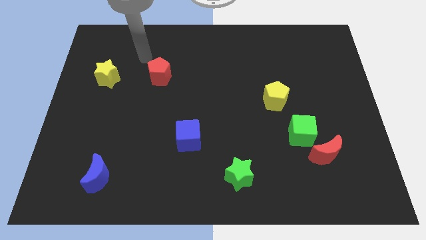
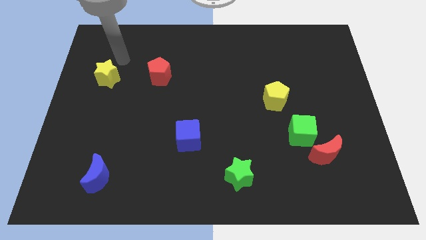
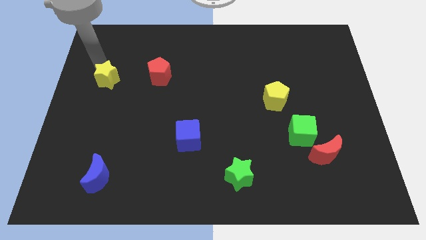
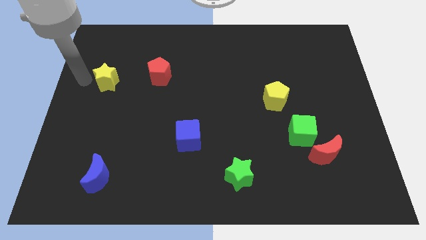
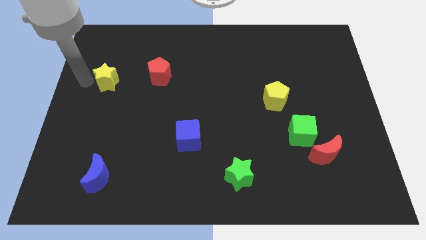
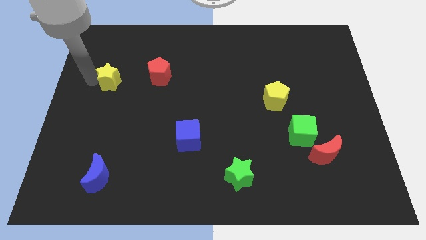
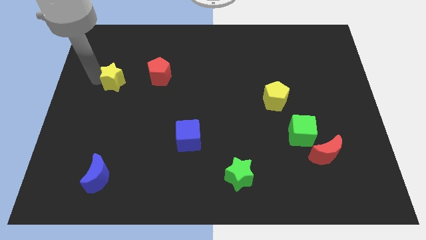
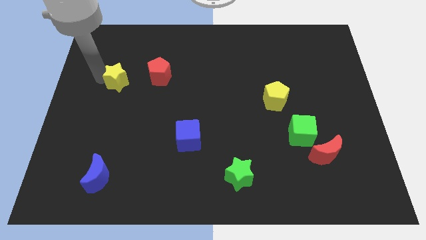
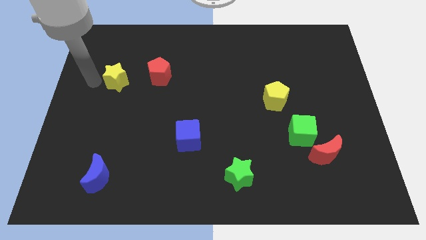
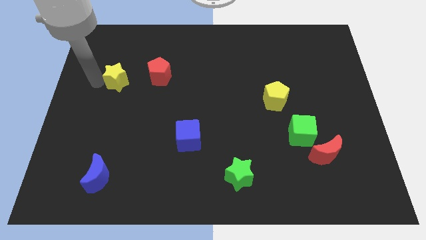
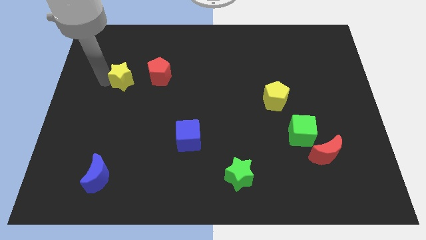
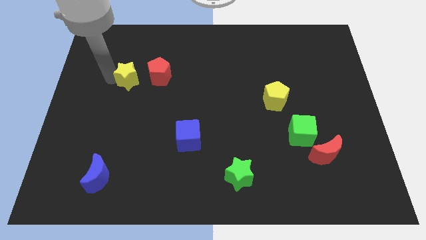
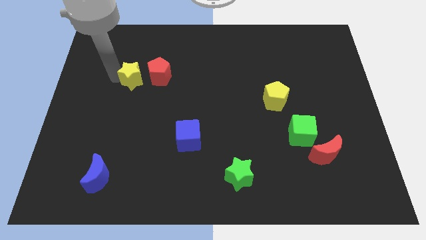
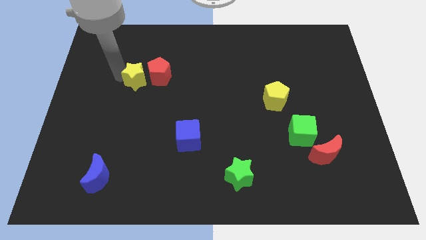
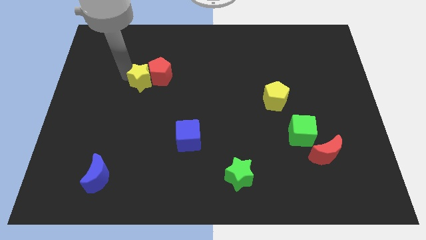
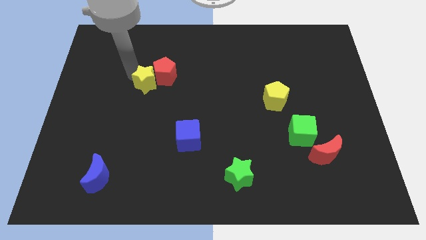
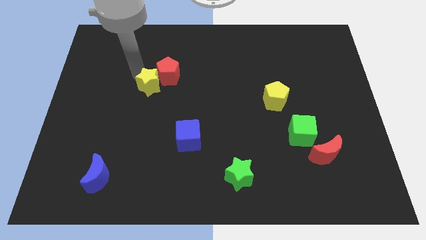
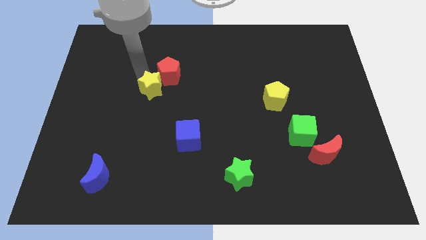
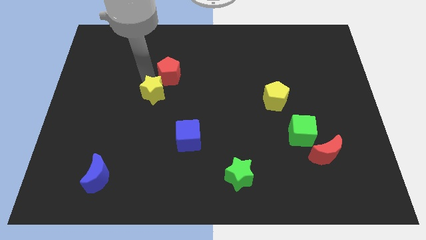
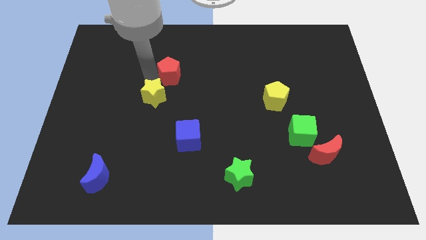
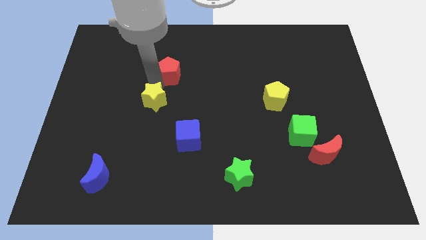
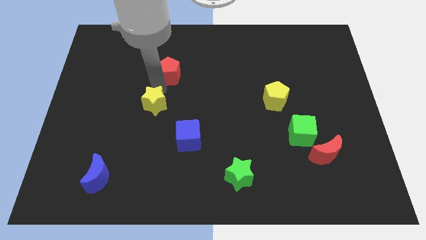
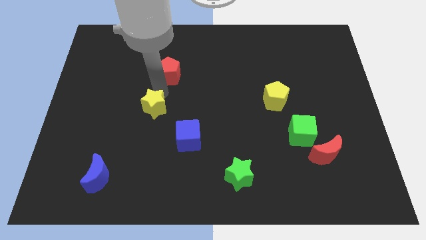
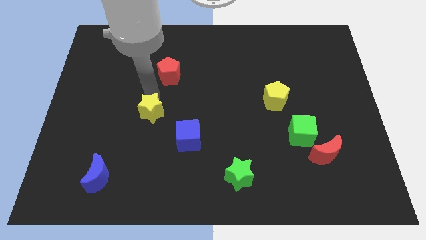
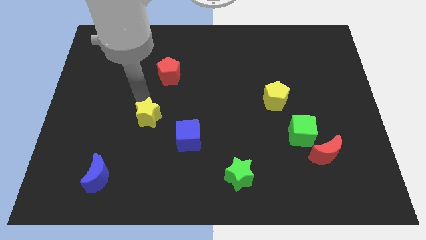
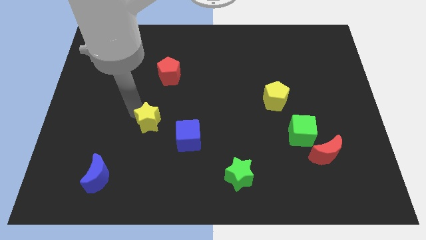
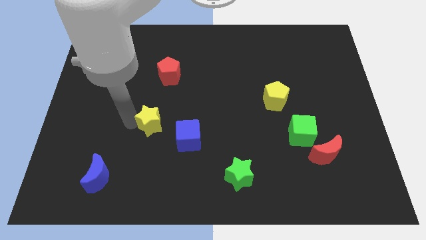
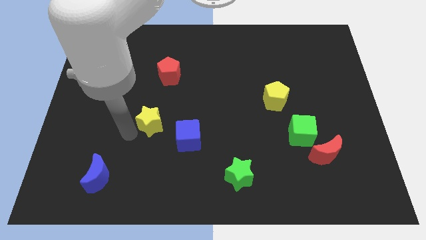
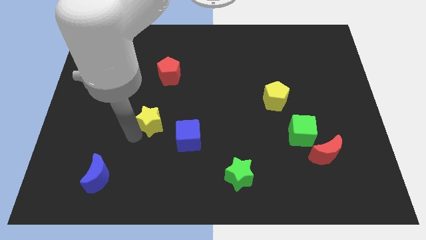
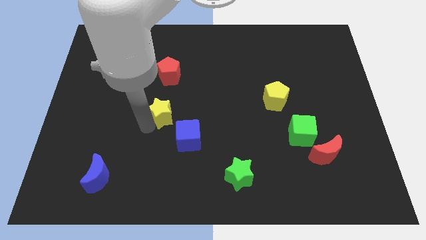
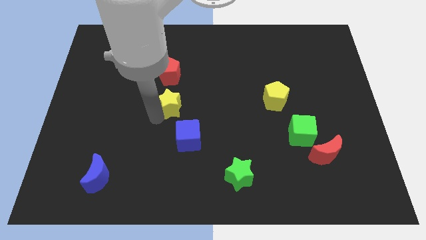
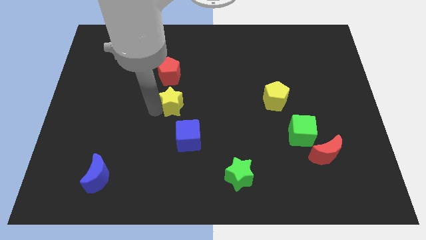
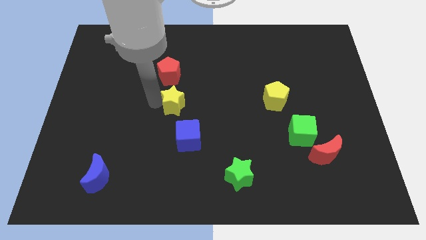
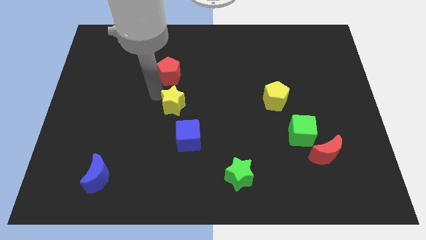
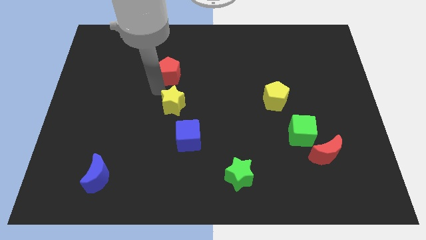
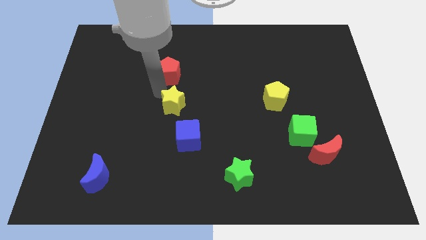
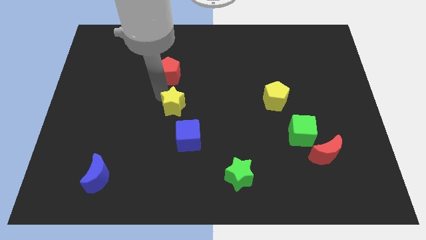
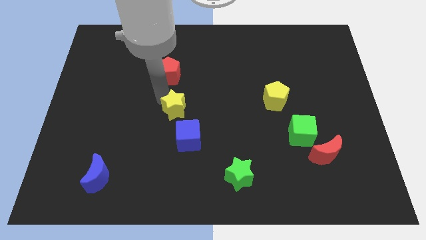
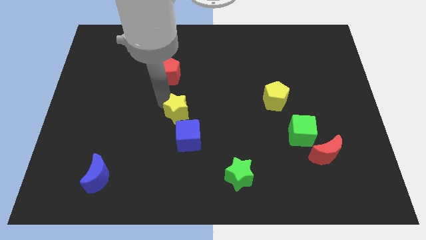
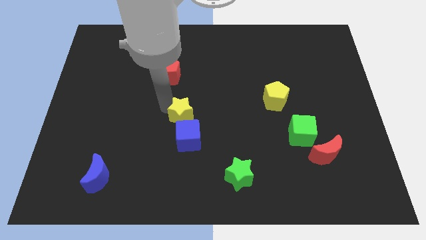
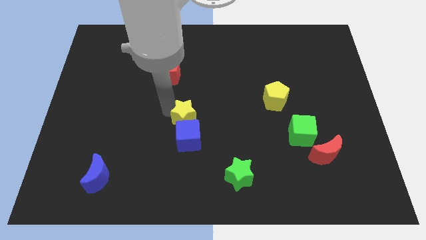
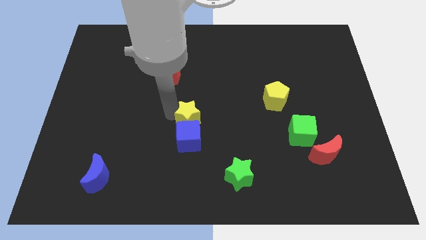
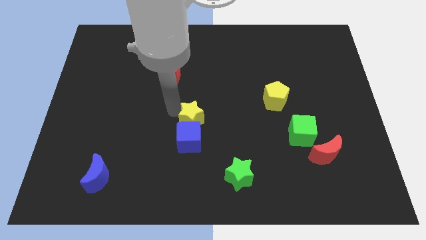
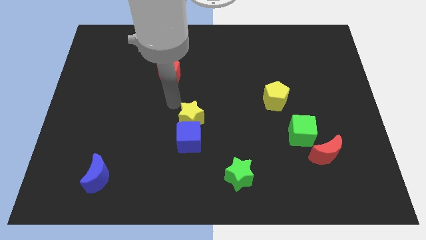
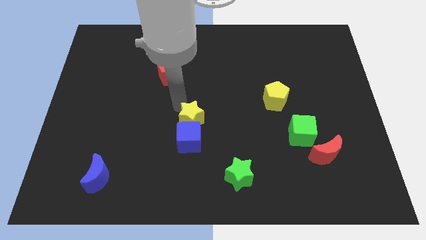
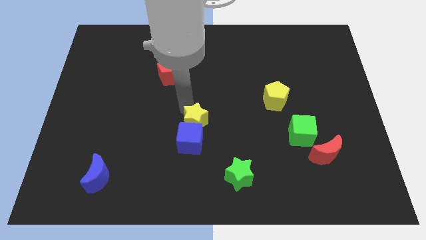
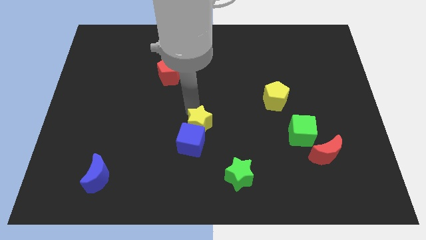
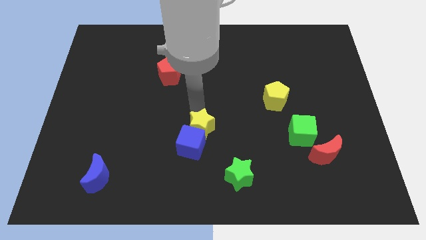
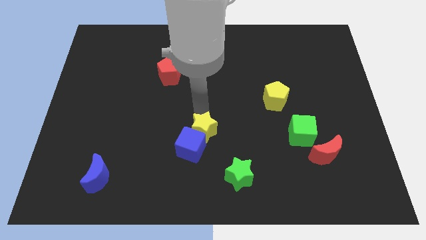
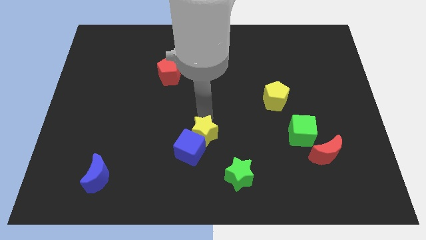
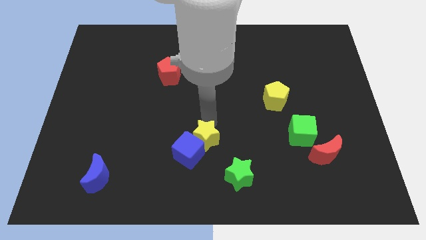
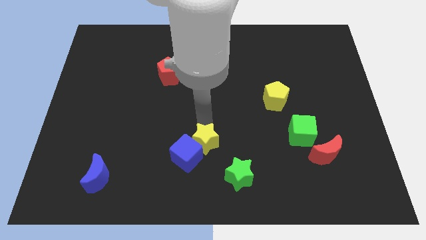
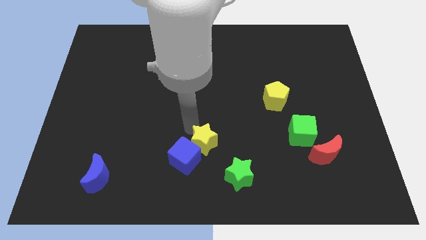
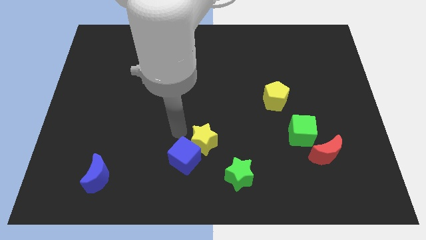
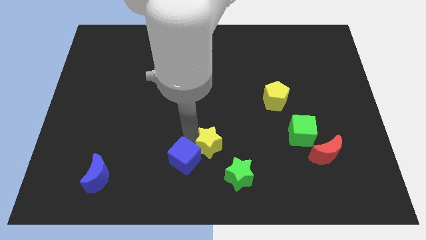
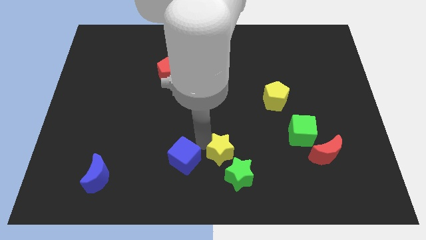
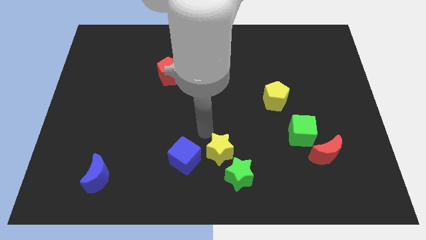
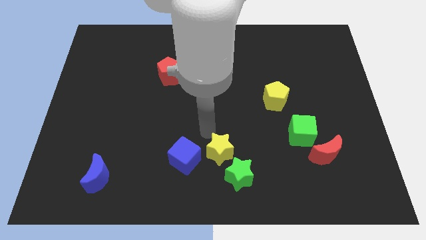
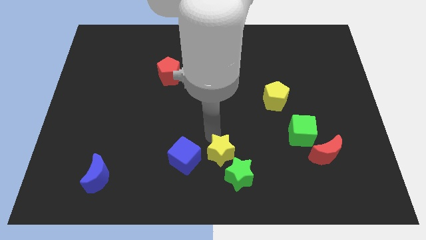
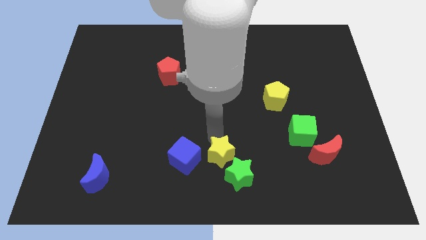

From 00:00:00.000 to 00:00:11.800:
push the yellow star to the green star

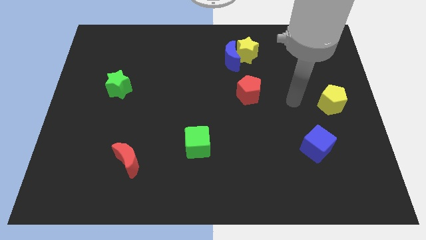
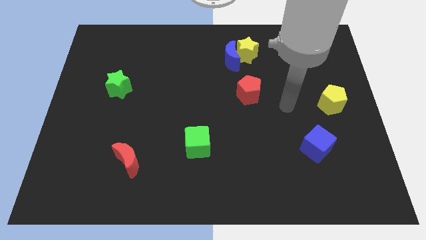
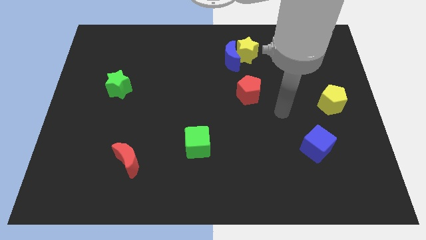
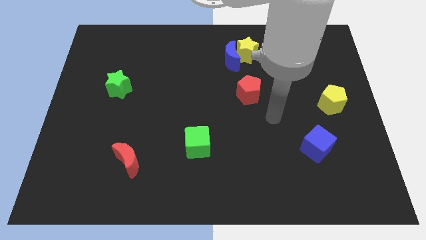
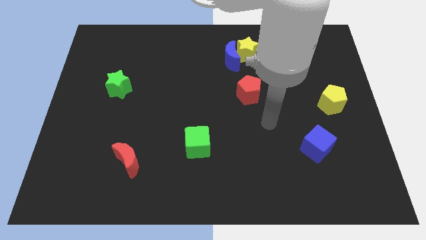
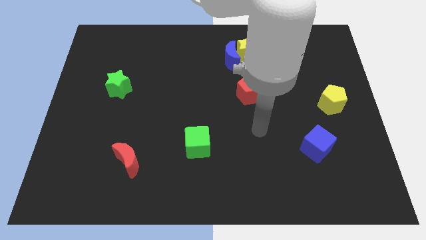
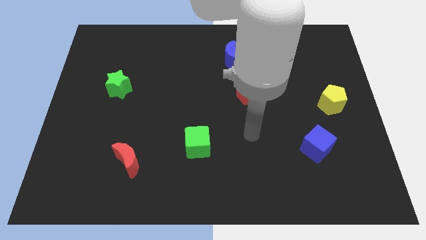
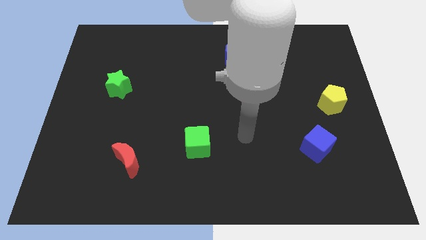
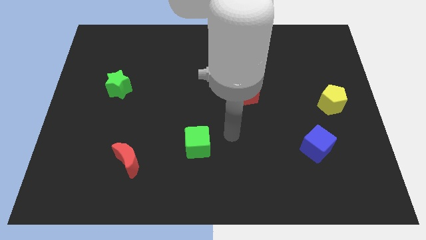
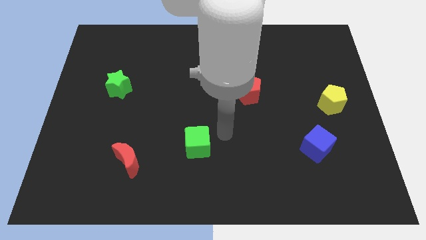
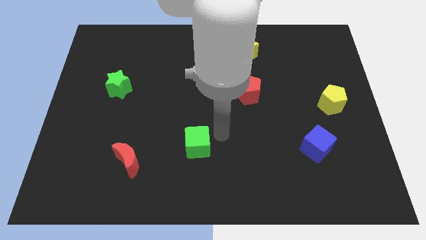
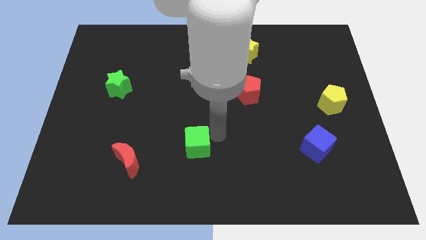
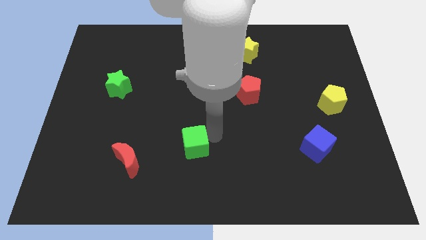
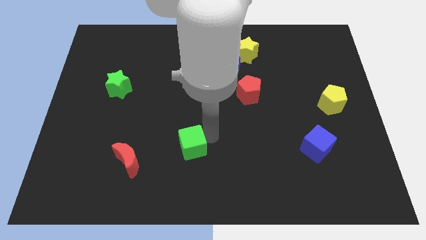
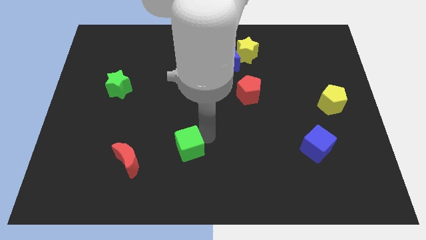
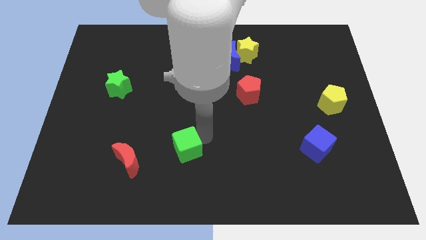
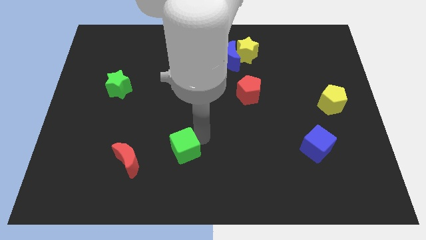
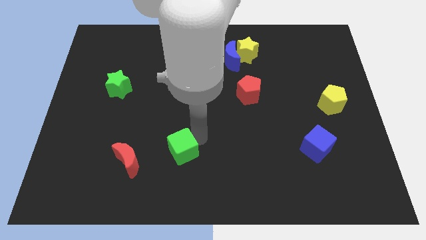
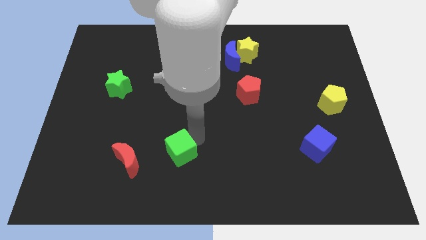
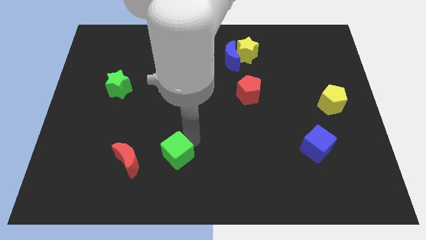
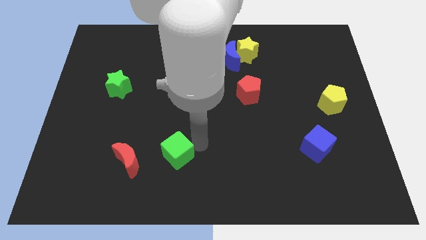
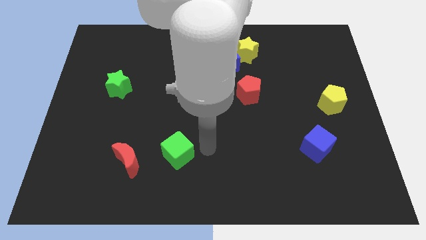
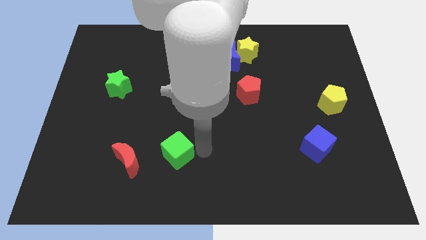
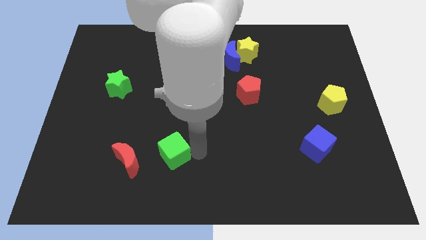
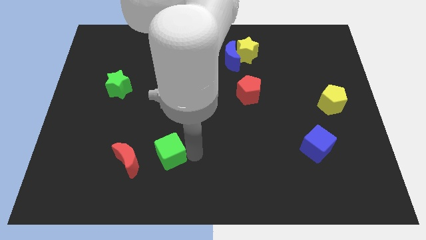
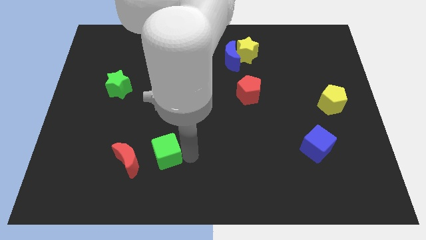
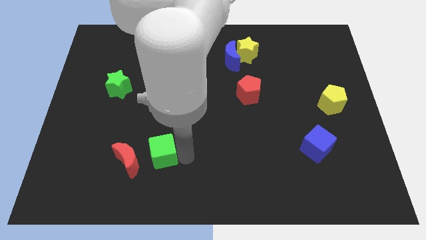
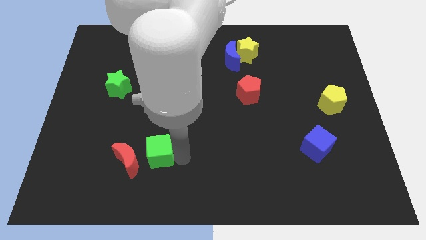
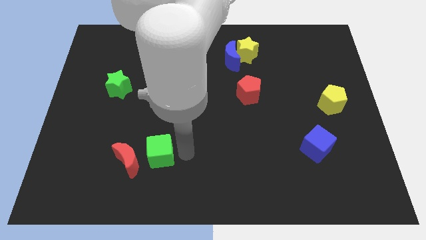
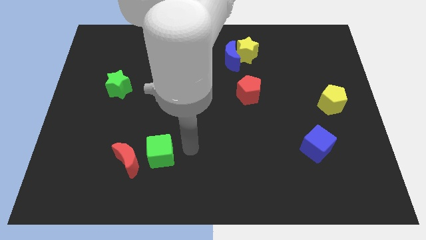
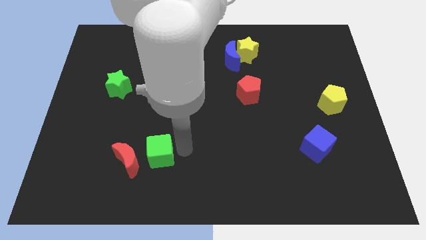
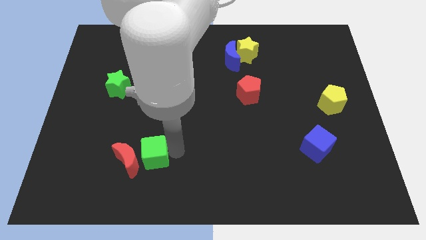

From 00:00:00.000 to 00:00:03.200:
move the green cube towards the red moon
